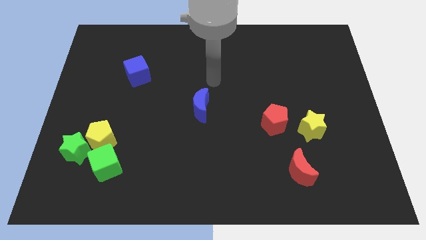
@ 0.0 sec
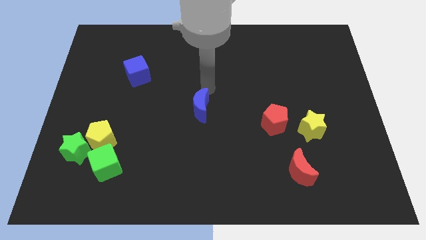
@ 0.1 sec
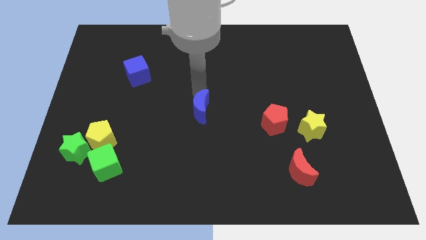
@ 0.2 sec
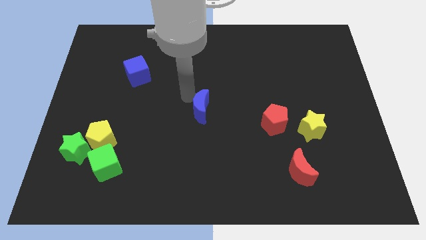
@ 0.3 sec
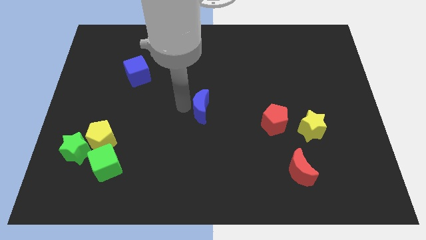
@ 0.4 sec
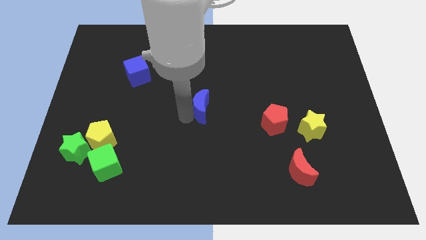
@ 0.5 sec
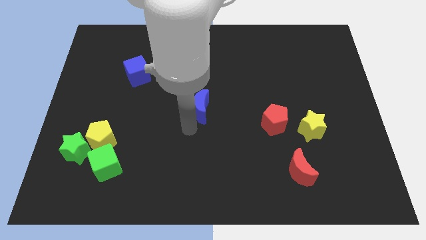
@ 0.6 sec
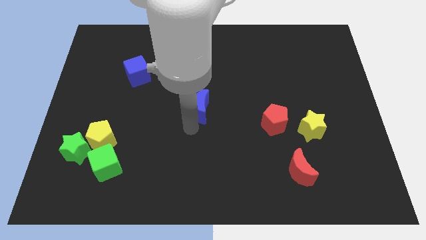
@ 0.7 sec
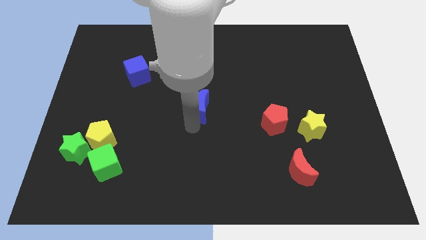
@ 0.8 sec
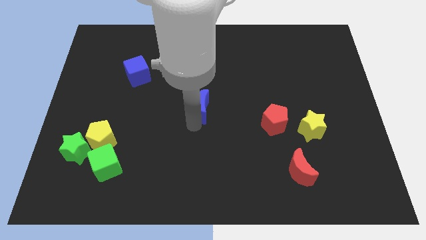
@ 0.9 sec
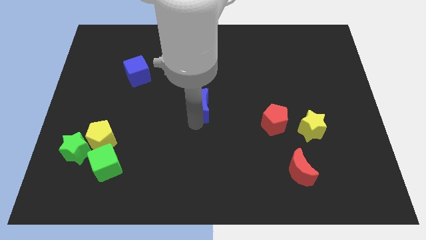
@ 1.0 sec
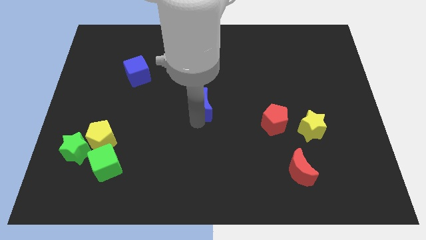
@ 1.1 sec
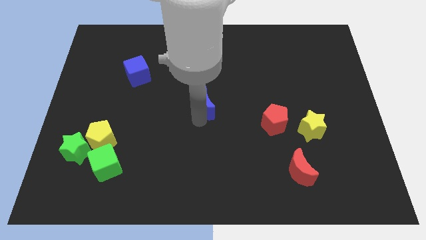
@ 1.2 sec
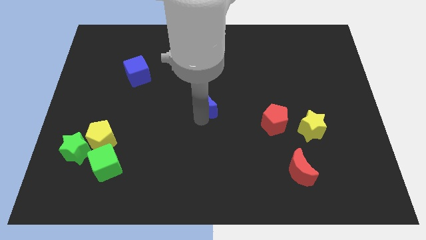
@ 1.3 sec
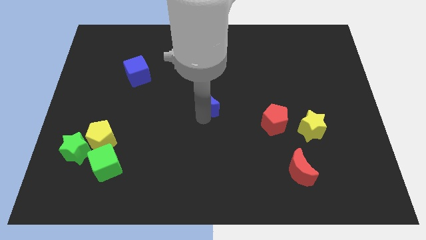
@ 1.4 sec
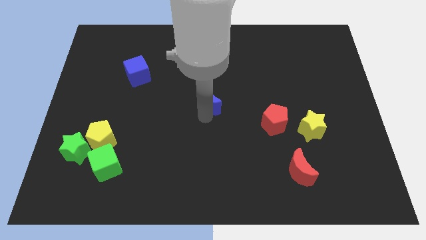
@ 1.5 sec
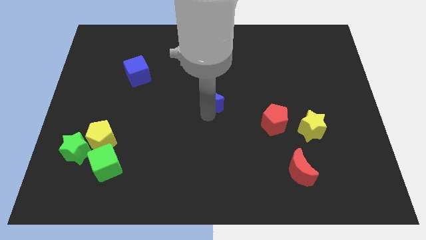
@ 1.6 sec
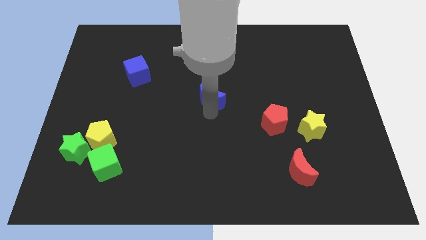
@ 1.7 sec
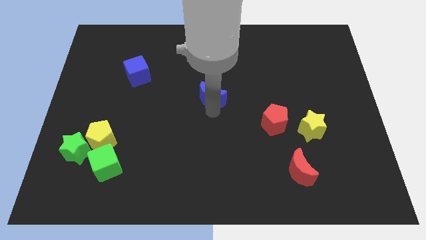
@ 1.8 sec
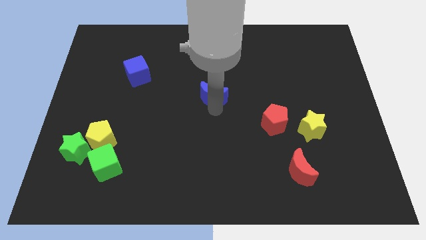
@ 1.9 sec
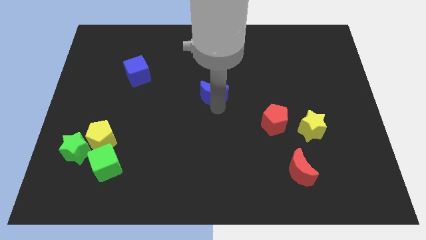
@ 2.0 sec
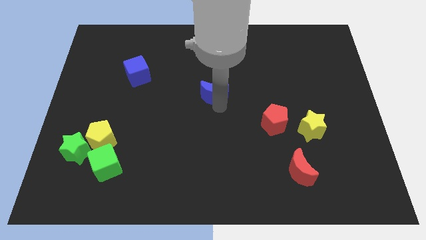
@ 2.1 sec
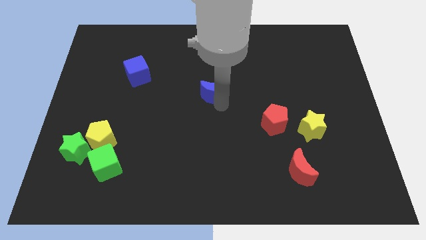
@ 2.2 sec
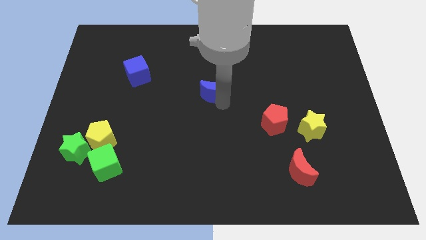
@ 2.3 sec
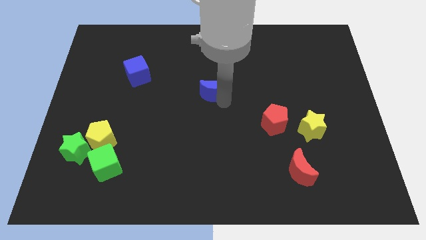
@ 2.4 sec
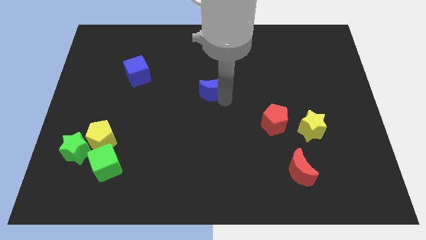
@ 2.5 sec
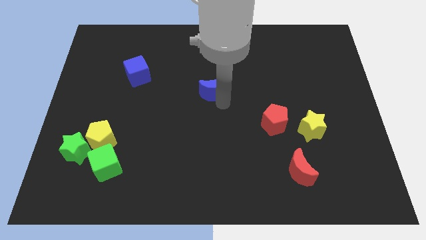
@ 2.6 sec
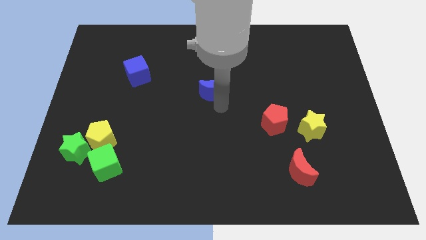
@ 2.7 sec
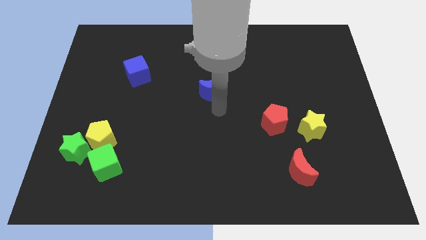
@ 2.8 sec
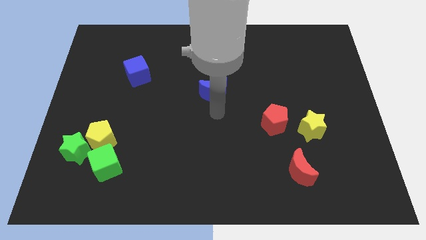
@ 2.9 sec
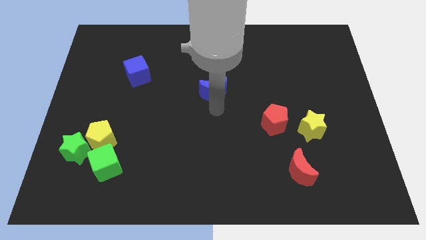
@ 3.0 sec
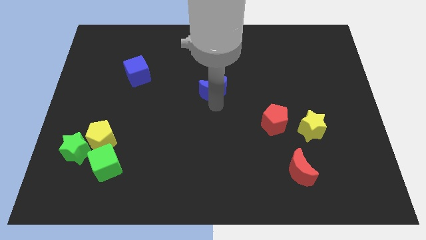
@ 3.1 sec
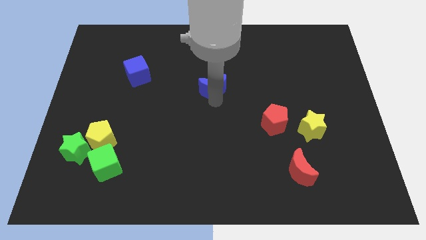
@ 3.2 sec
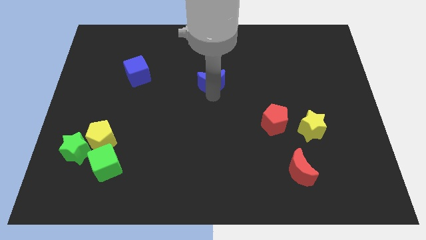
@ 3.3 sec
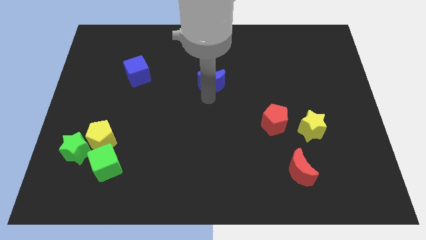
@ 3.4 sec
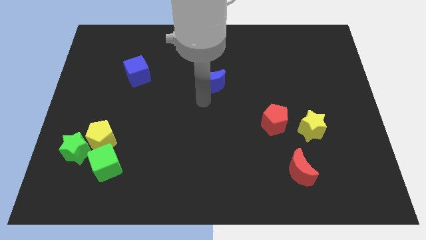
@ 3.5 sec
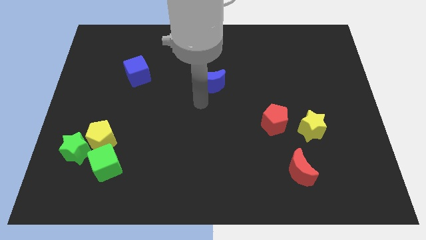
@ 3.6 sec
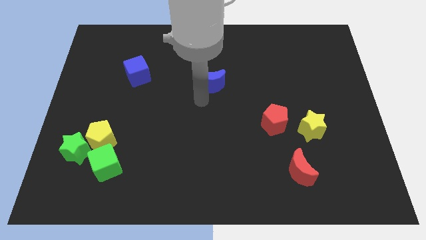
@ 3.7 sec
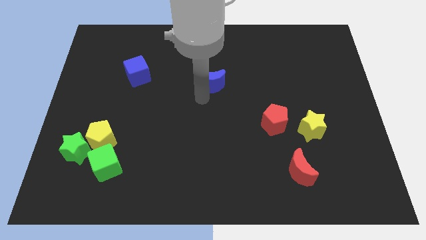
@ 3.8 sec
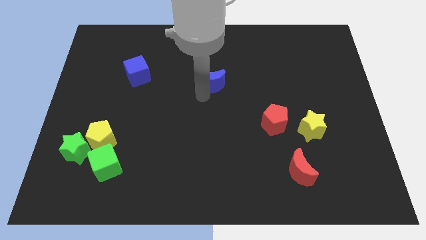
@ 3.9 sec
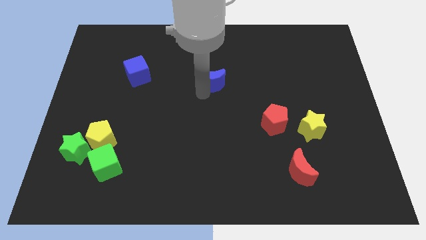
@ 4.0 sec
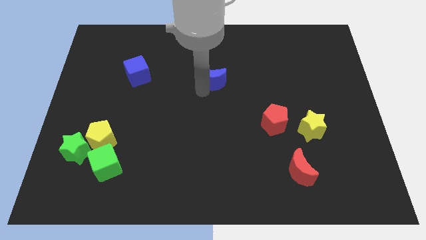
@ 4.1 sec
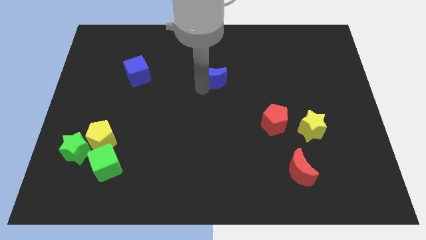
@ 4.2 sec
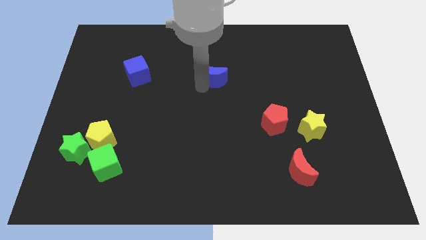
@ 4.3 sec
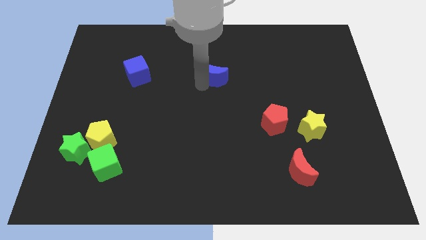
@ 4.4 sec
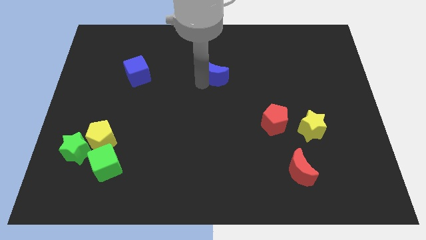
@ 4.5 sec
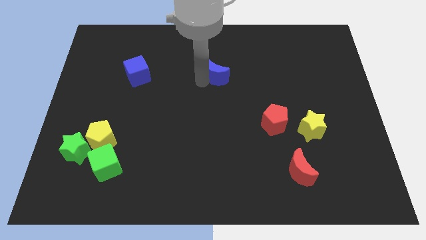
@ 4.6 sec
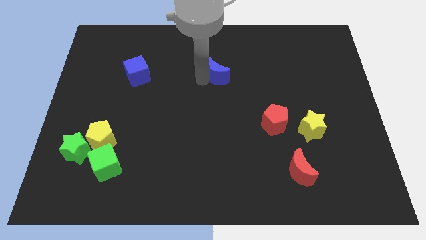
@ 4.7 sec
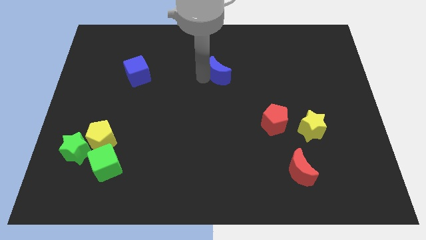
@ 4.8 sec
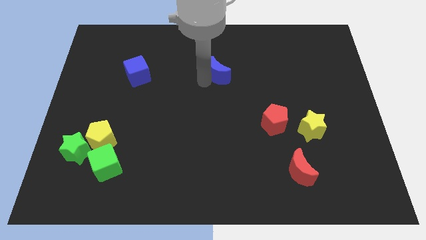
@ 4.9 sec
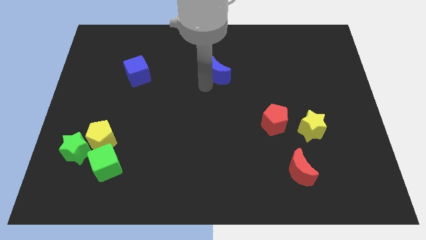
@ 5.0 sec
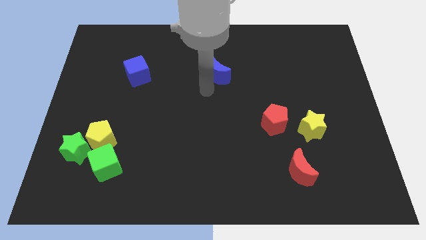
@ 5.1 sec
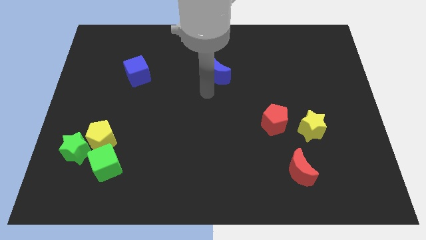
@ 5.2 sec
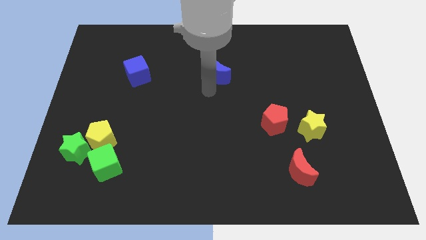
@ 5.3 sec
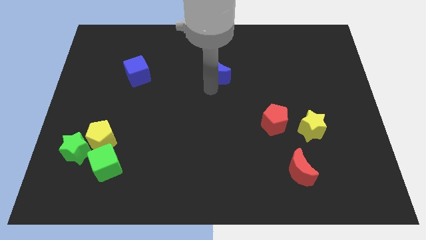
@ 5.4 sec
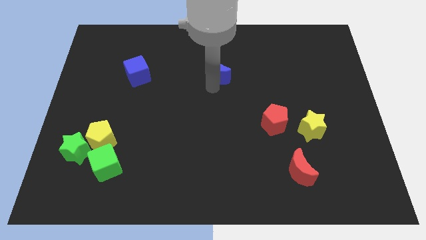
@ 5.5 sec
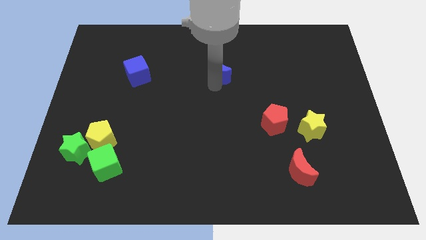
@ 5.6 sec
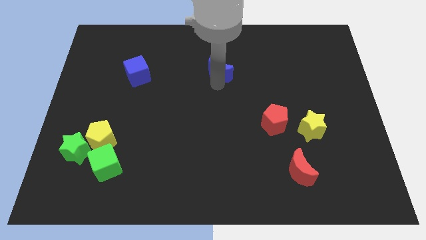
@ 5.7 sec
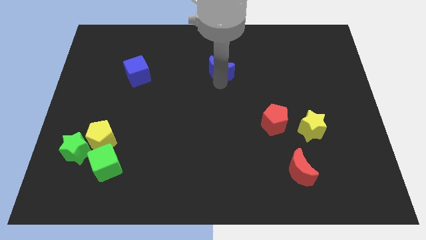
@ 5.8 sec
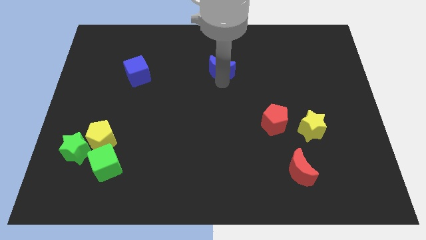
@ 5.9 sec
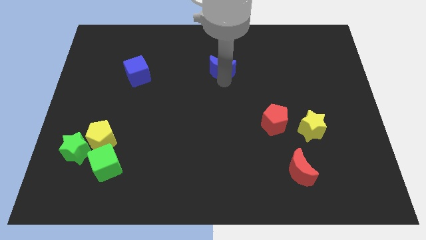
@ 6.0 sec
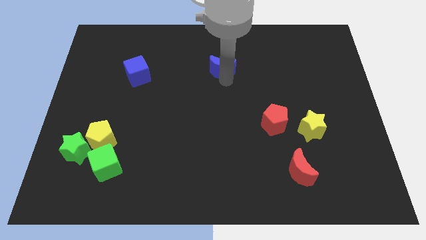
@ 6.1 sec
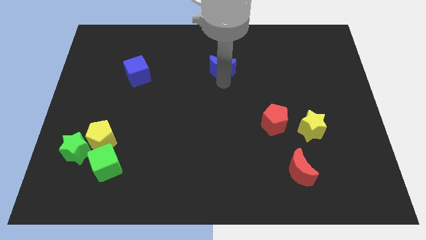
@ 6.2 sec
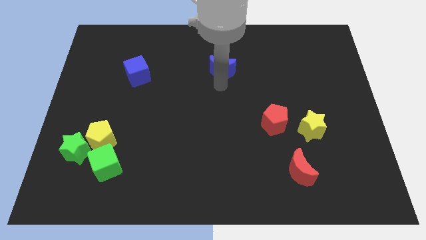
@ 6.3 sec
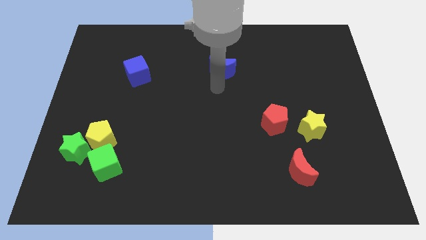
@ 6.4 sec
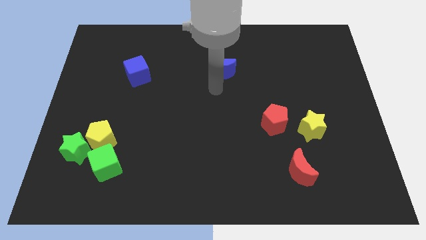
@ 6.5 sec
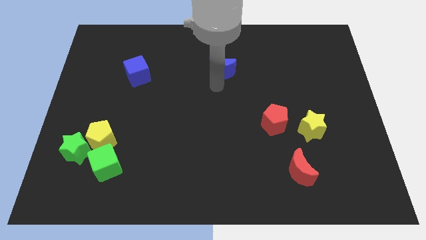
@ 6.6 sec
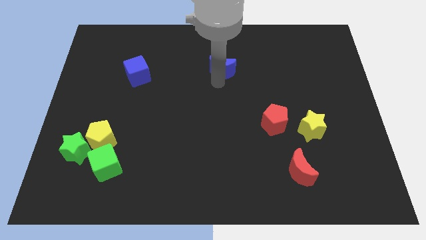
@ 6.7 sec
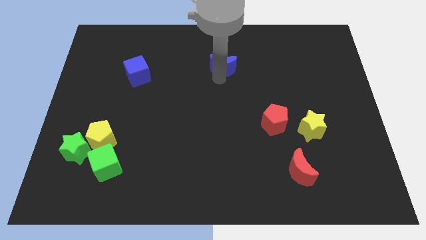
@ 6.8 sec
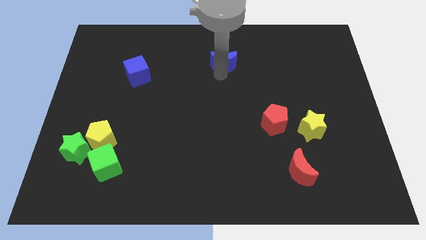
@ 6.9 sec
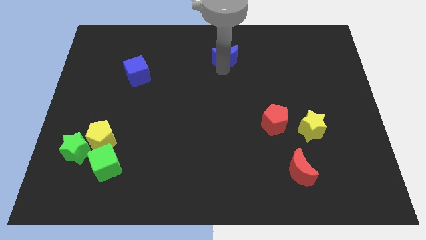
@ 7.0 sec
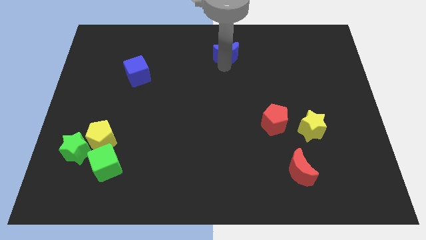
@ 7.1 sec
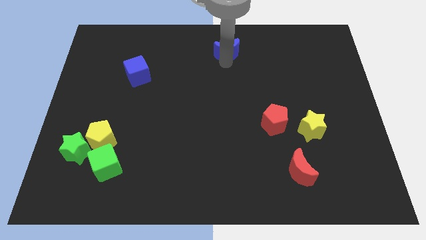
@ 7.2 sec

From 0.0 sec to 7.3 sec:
put the blue moon to the towards your base
